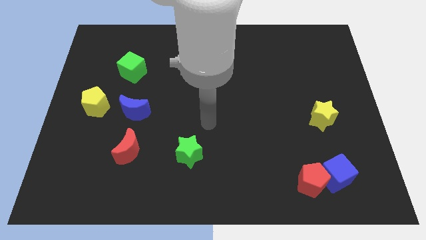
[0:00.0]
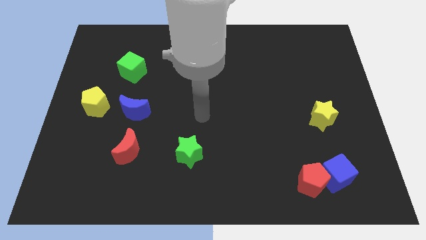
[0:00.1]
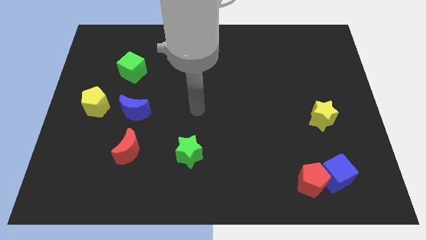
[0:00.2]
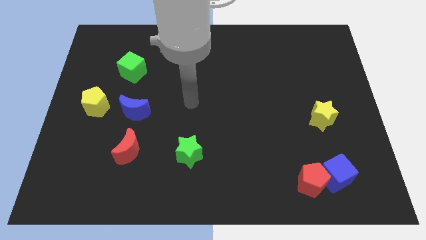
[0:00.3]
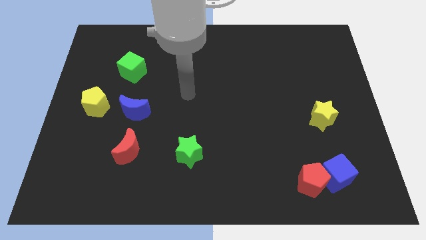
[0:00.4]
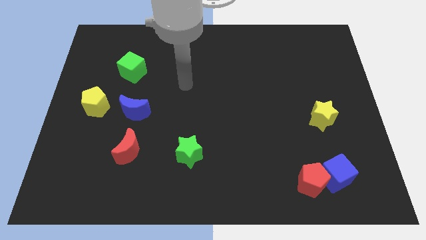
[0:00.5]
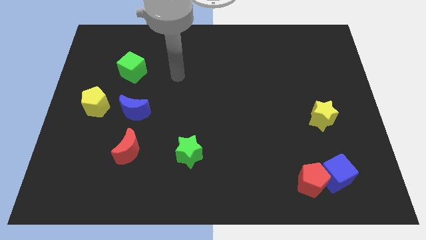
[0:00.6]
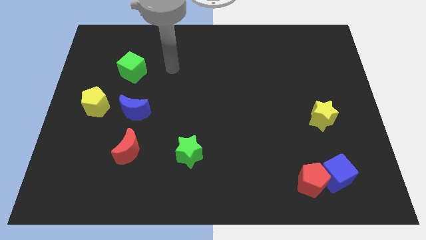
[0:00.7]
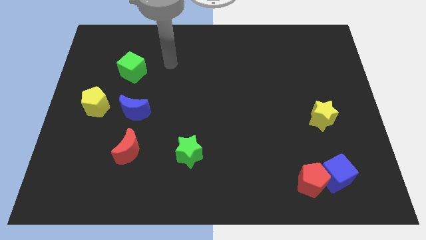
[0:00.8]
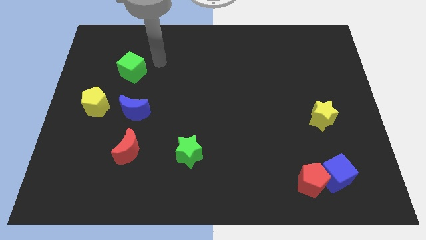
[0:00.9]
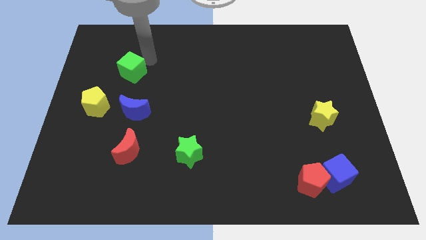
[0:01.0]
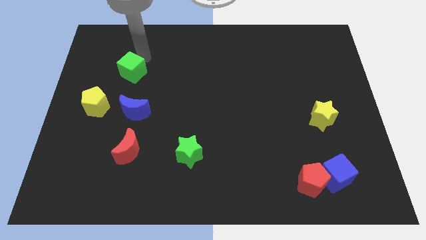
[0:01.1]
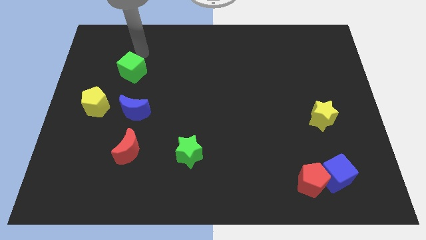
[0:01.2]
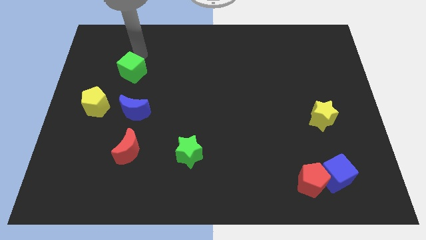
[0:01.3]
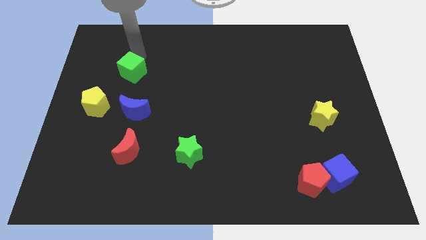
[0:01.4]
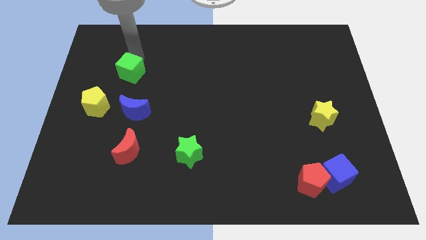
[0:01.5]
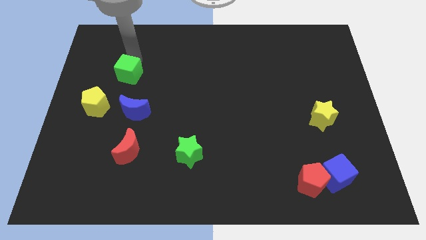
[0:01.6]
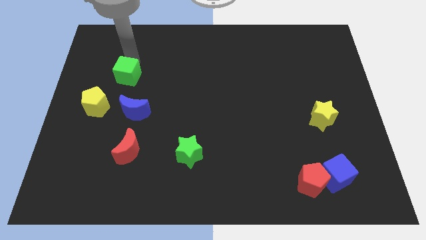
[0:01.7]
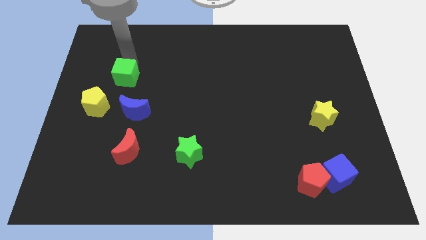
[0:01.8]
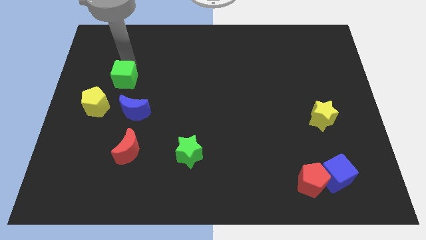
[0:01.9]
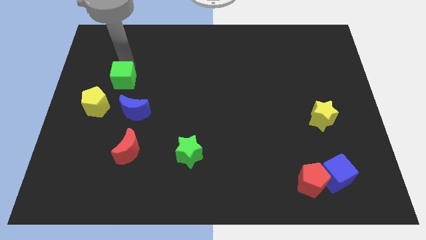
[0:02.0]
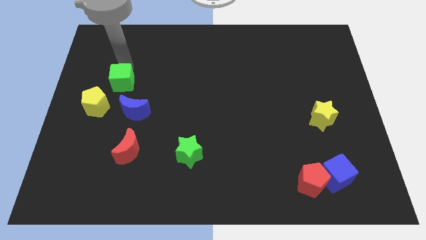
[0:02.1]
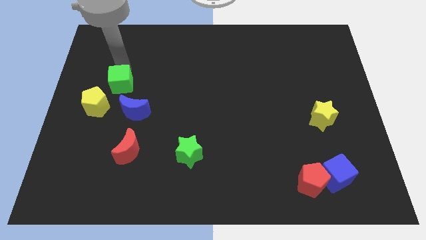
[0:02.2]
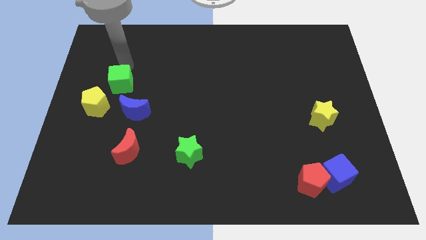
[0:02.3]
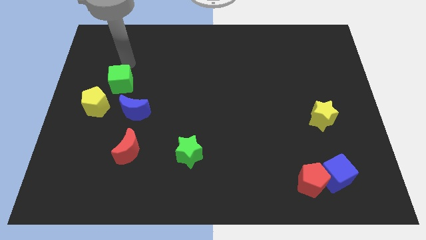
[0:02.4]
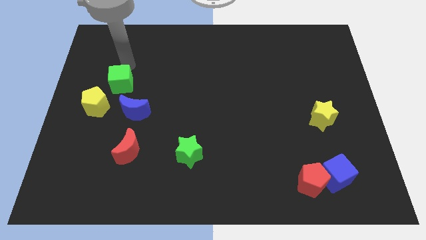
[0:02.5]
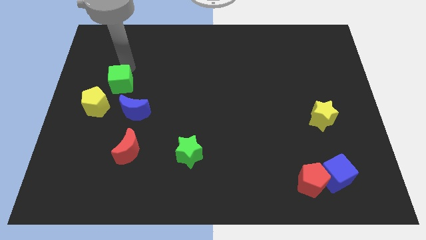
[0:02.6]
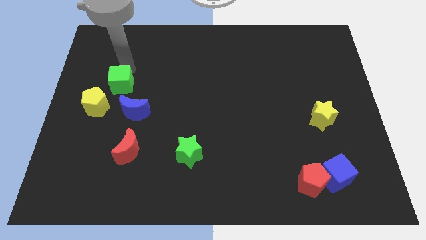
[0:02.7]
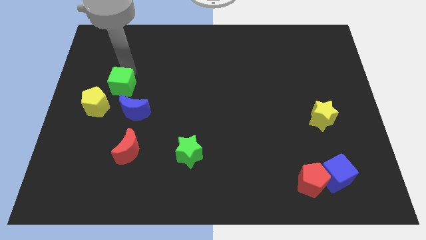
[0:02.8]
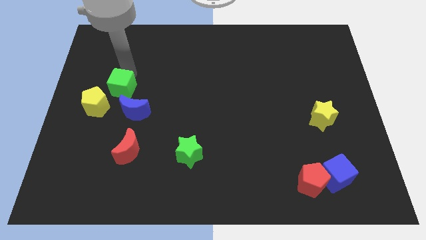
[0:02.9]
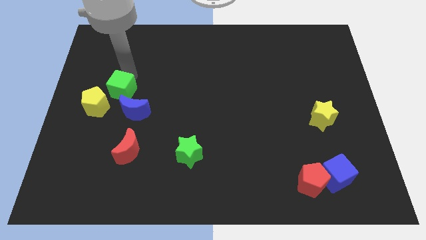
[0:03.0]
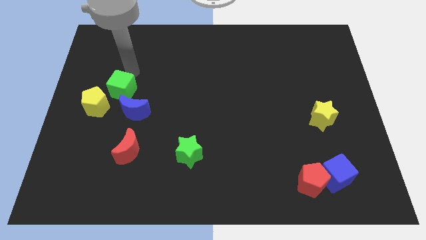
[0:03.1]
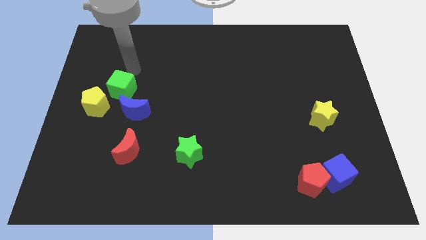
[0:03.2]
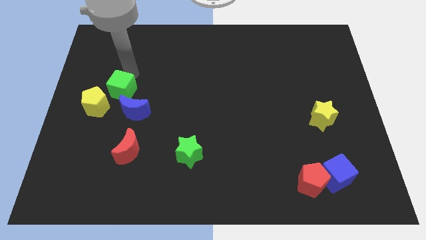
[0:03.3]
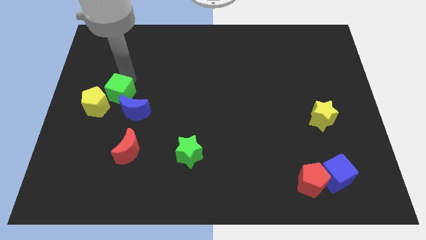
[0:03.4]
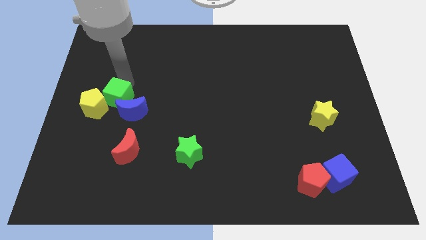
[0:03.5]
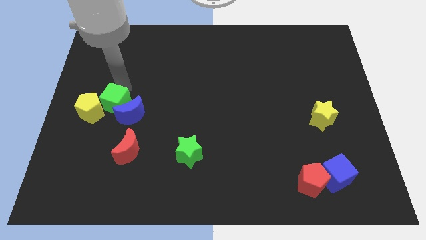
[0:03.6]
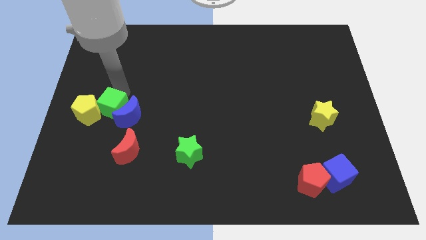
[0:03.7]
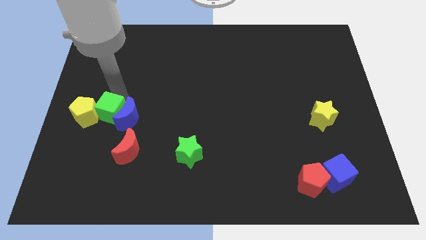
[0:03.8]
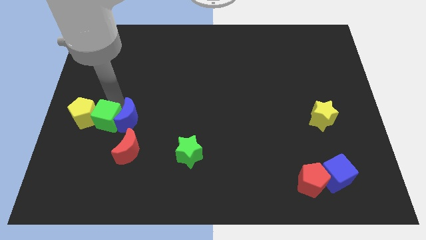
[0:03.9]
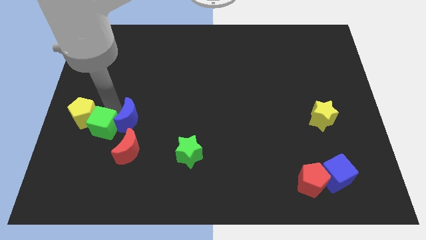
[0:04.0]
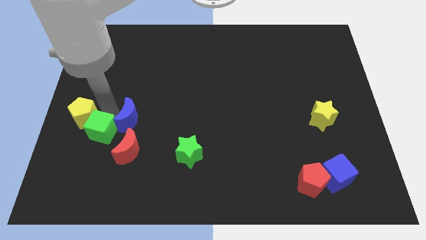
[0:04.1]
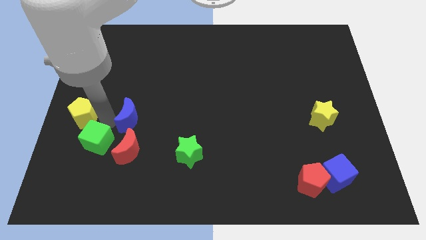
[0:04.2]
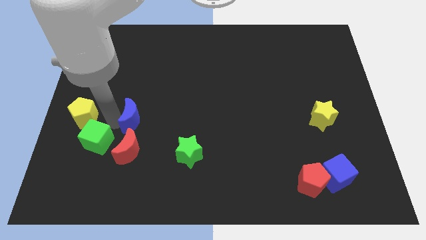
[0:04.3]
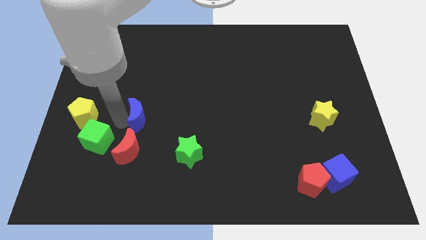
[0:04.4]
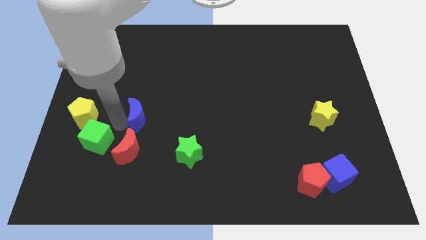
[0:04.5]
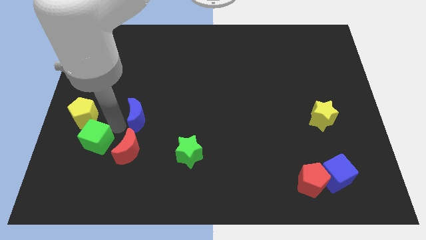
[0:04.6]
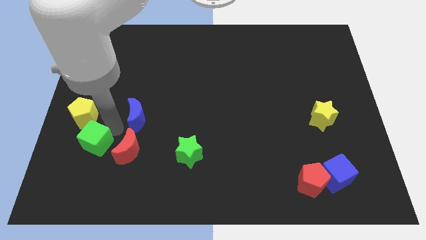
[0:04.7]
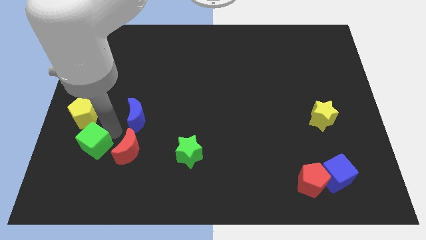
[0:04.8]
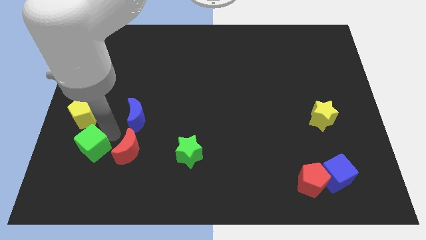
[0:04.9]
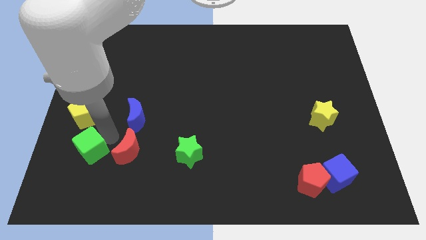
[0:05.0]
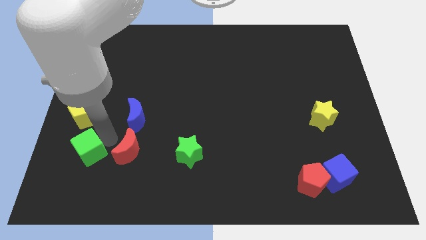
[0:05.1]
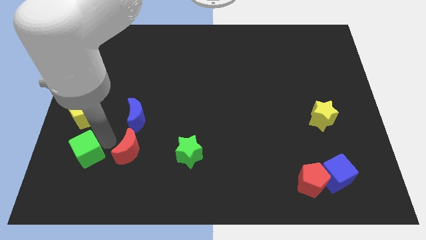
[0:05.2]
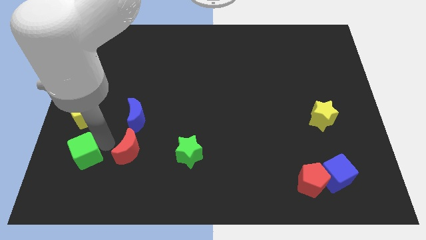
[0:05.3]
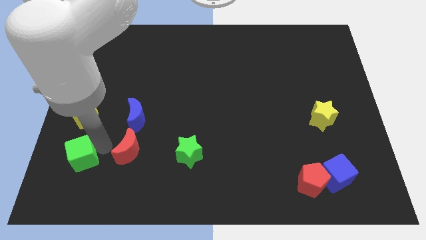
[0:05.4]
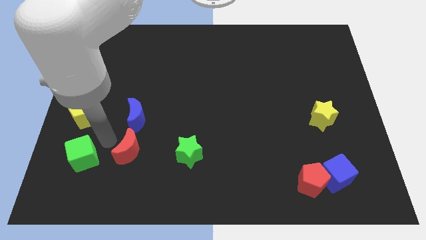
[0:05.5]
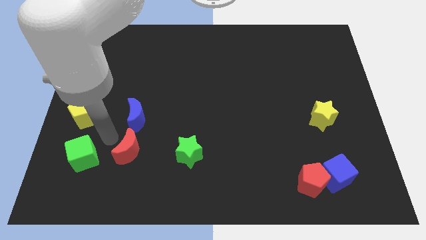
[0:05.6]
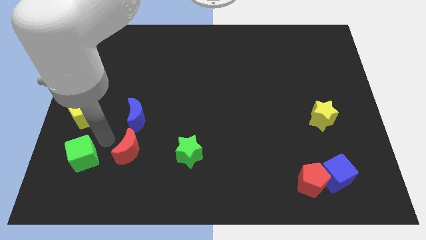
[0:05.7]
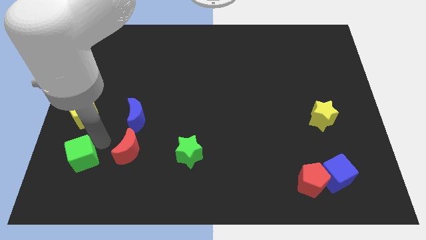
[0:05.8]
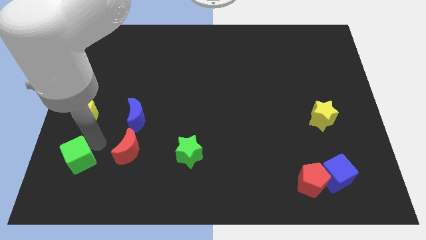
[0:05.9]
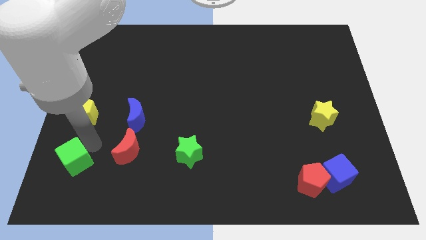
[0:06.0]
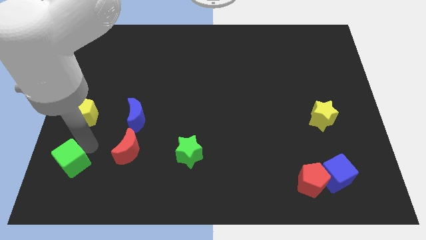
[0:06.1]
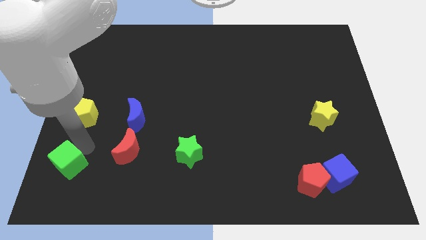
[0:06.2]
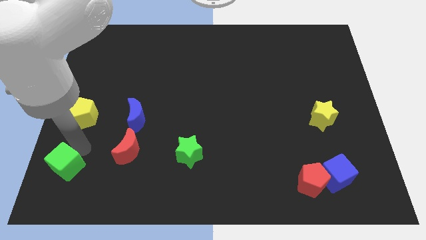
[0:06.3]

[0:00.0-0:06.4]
push the green cube to the bottom left corner
